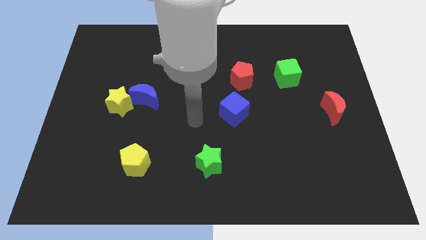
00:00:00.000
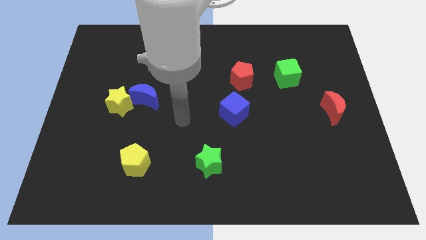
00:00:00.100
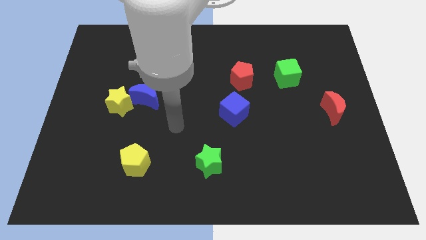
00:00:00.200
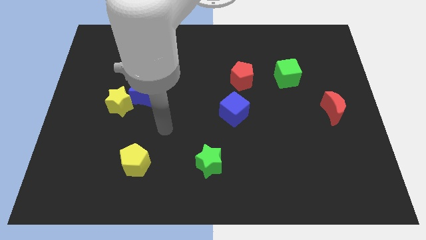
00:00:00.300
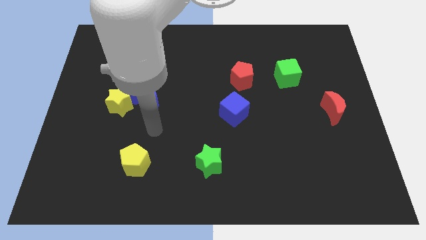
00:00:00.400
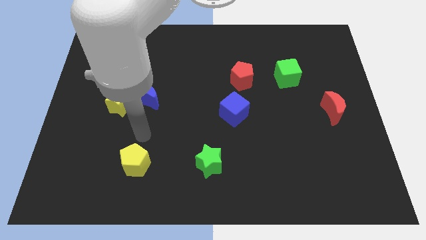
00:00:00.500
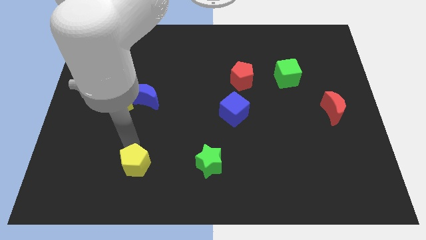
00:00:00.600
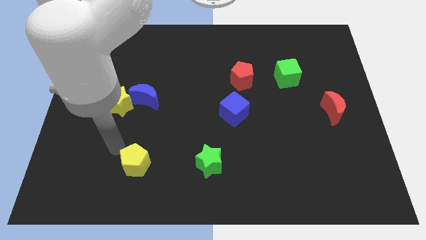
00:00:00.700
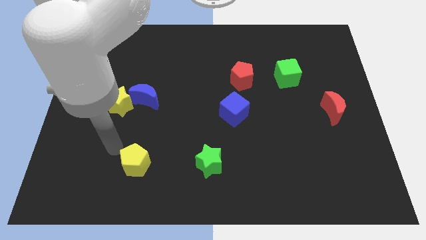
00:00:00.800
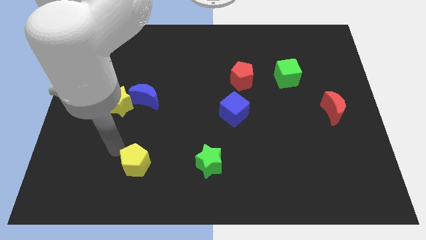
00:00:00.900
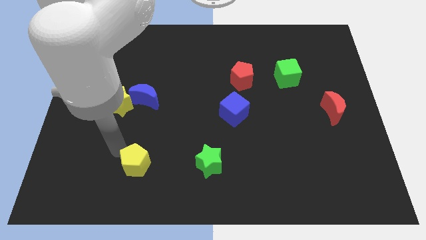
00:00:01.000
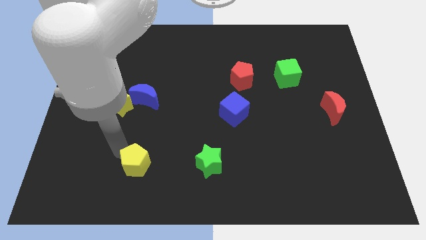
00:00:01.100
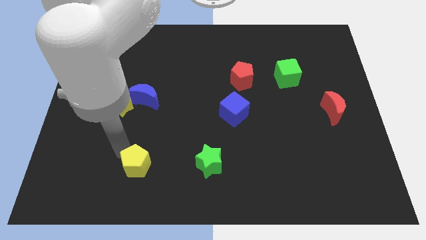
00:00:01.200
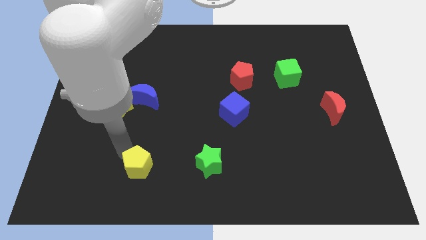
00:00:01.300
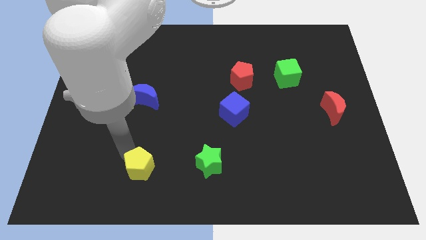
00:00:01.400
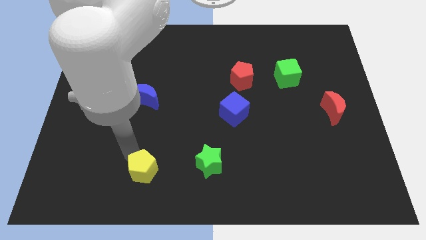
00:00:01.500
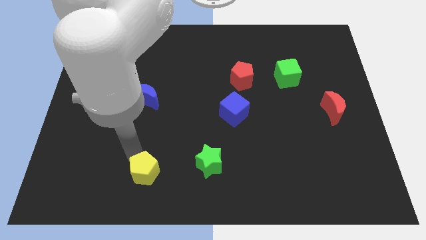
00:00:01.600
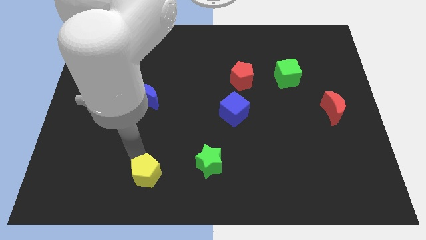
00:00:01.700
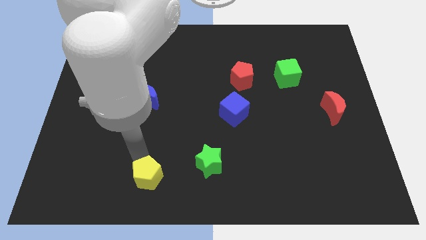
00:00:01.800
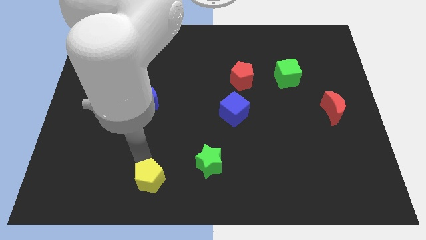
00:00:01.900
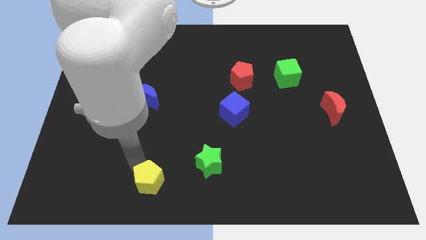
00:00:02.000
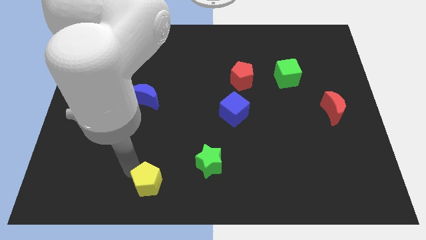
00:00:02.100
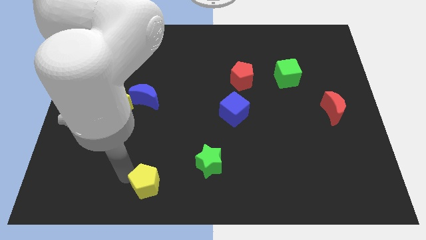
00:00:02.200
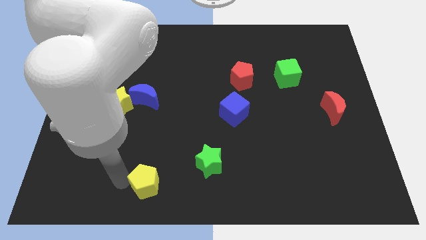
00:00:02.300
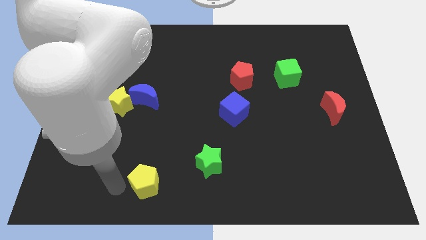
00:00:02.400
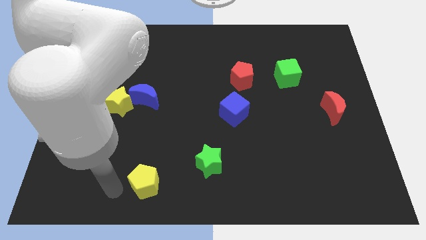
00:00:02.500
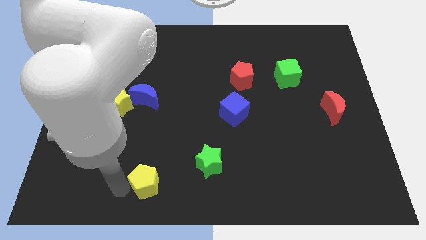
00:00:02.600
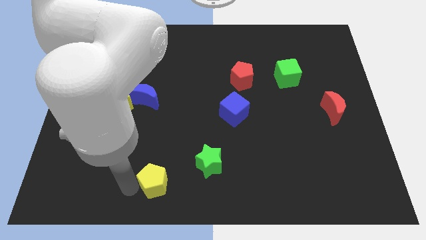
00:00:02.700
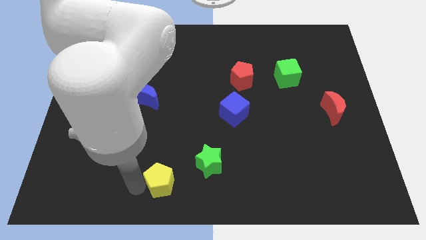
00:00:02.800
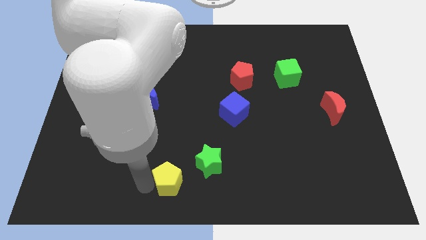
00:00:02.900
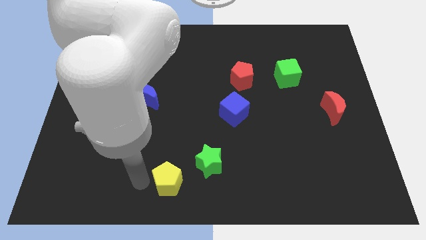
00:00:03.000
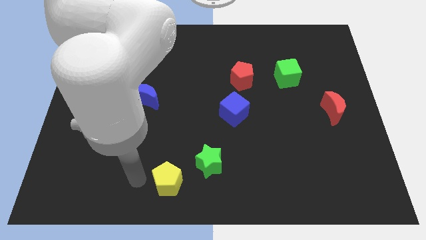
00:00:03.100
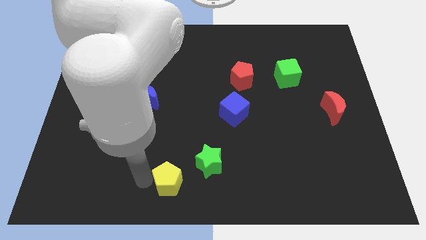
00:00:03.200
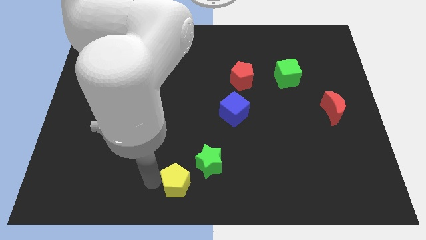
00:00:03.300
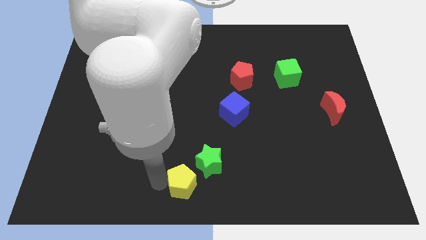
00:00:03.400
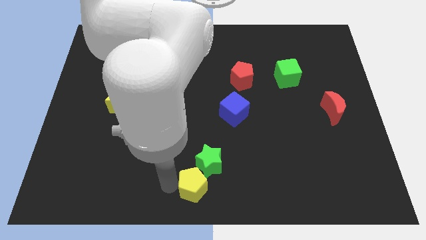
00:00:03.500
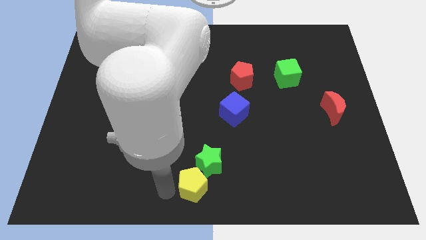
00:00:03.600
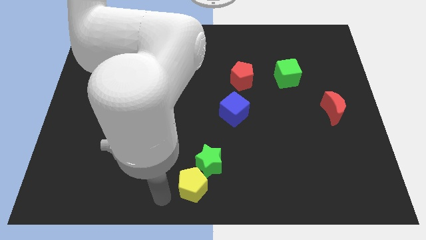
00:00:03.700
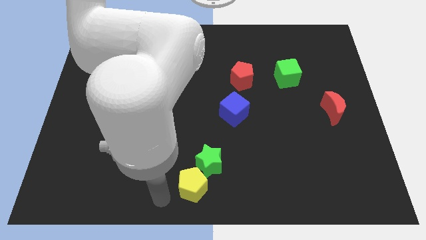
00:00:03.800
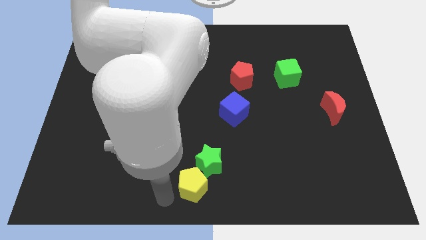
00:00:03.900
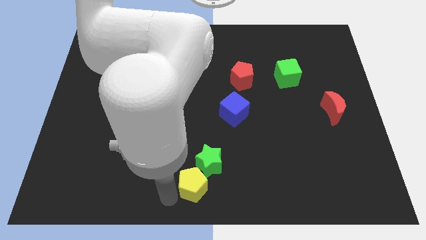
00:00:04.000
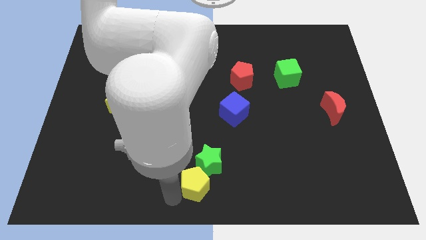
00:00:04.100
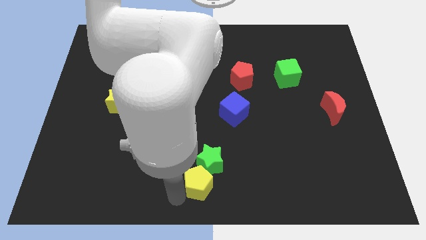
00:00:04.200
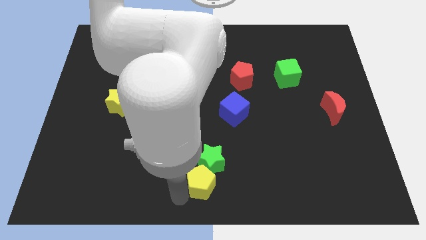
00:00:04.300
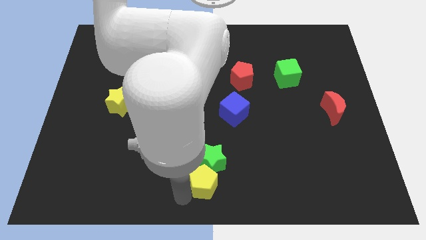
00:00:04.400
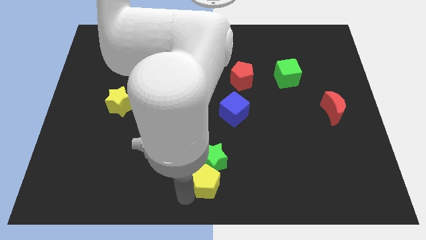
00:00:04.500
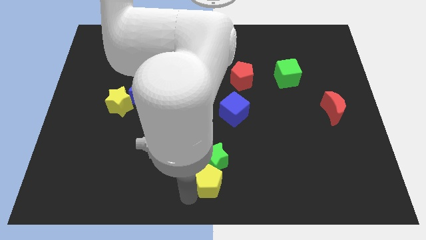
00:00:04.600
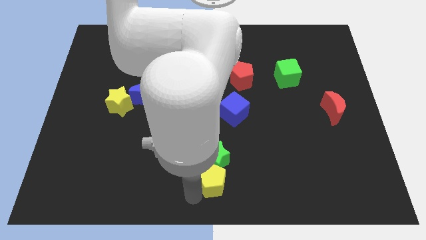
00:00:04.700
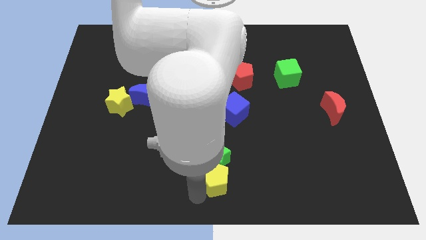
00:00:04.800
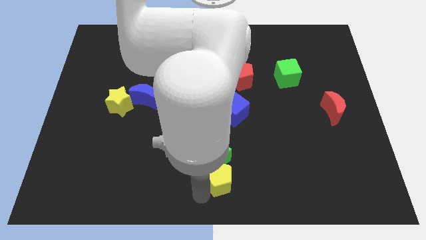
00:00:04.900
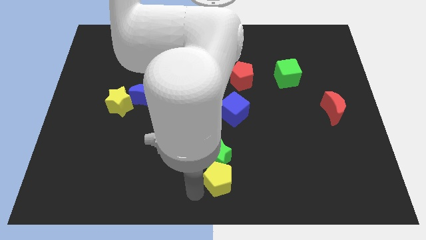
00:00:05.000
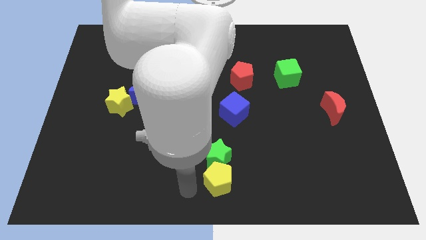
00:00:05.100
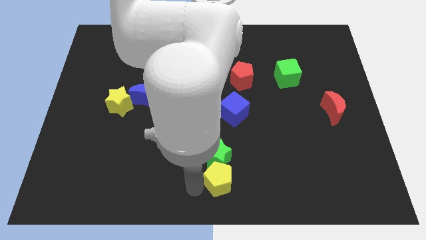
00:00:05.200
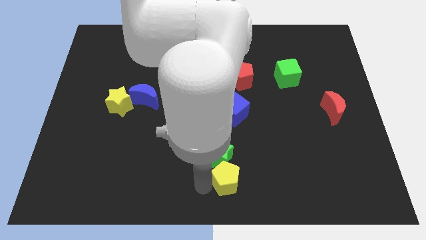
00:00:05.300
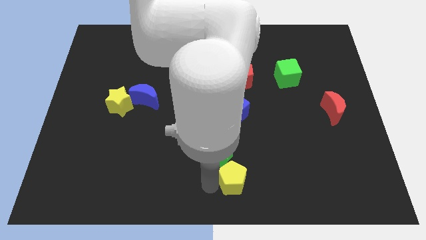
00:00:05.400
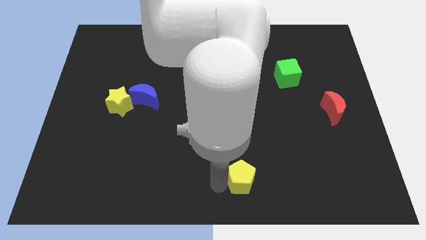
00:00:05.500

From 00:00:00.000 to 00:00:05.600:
move the yellow pentagon to the right

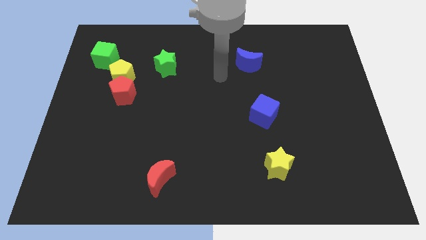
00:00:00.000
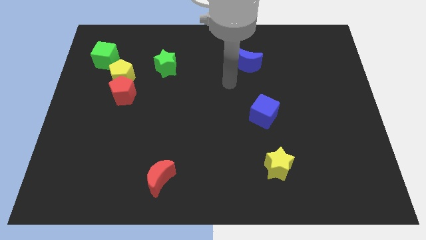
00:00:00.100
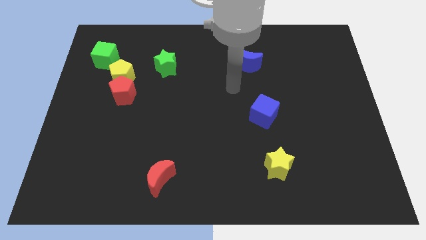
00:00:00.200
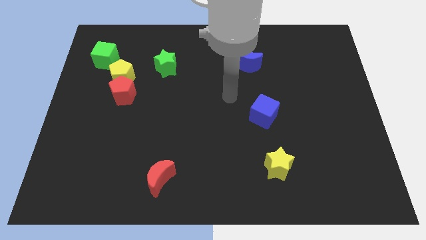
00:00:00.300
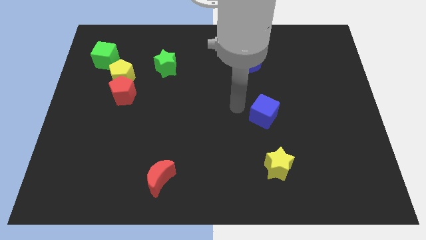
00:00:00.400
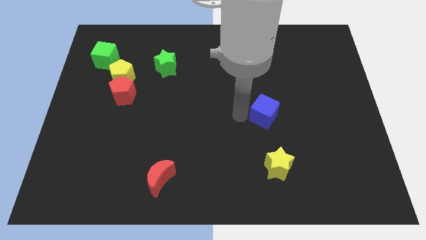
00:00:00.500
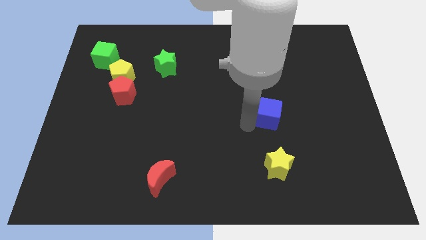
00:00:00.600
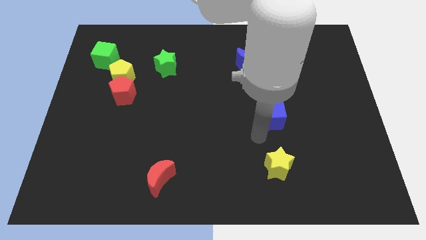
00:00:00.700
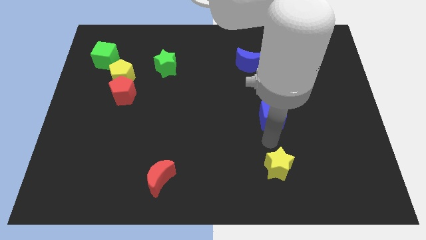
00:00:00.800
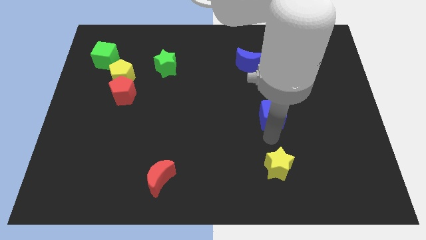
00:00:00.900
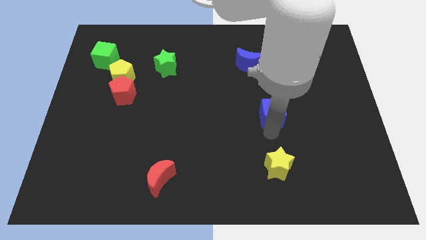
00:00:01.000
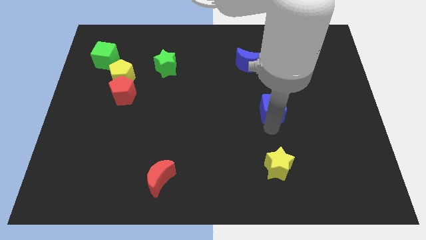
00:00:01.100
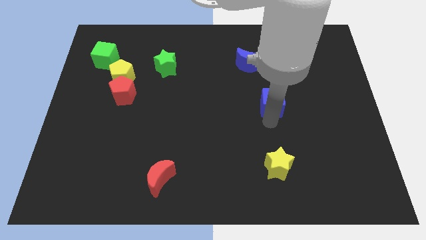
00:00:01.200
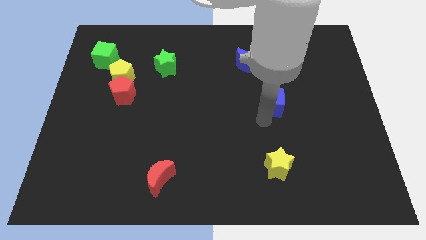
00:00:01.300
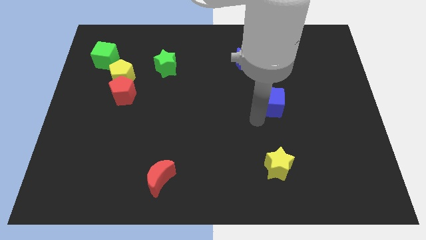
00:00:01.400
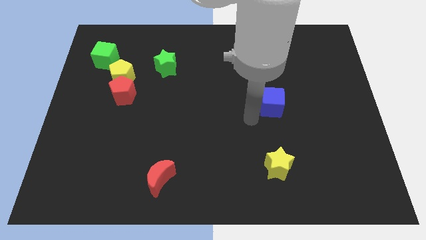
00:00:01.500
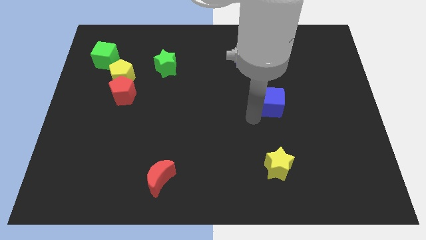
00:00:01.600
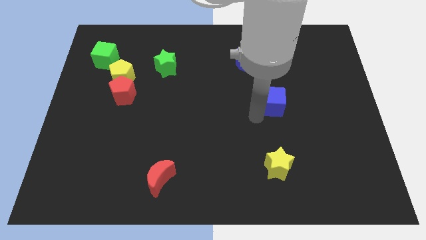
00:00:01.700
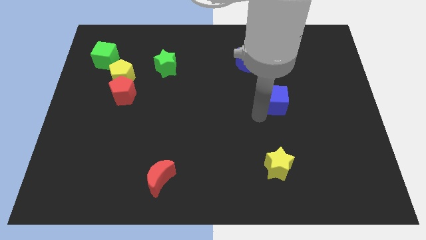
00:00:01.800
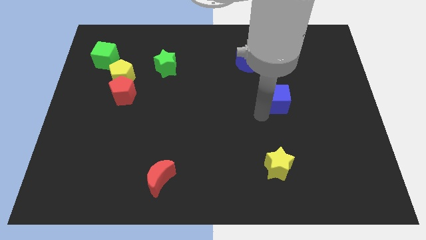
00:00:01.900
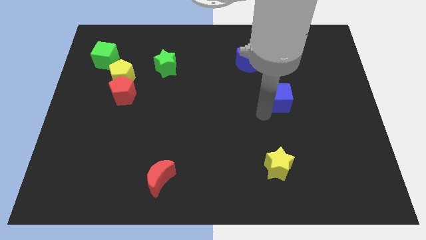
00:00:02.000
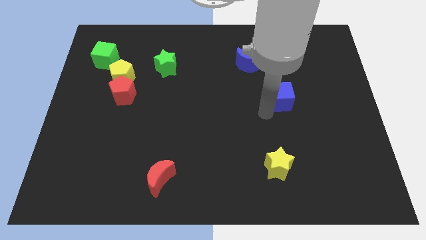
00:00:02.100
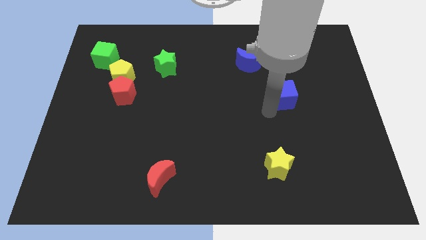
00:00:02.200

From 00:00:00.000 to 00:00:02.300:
push the blue cube a bit up and to the right diagonally
